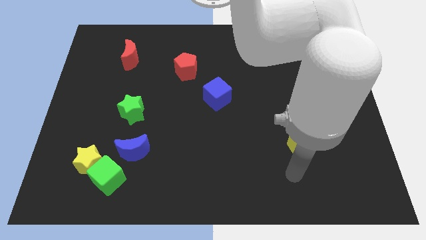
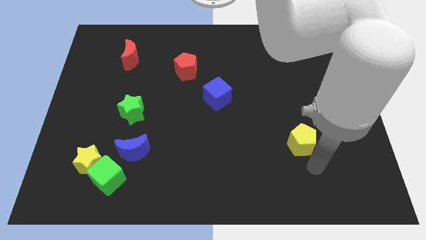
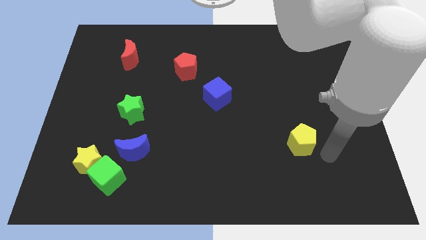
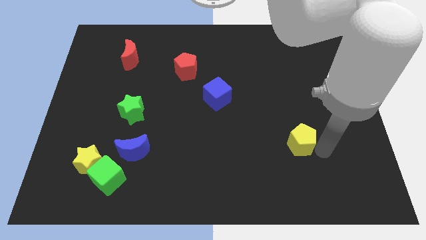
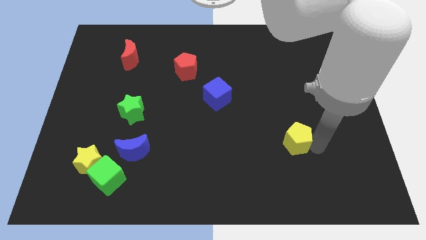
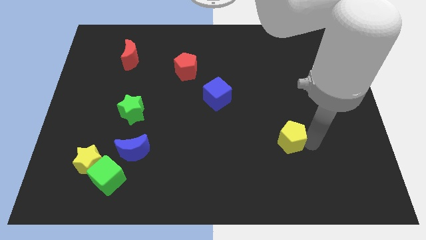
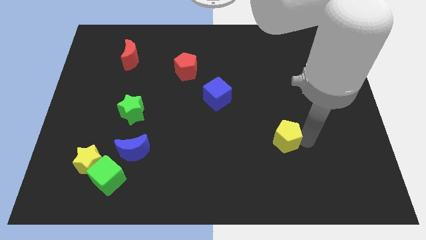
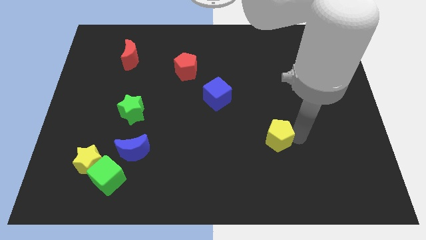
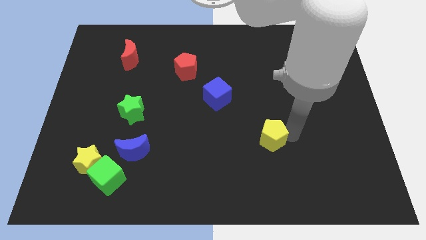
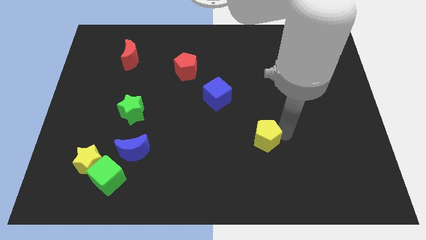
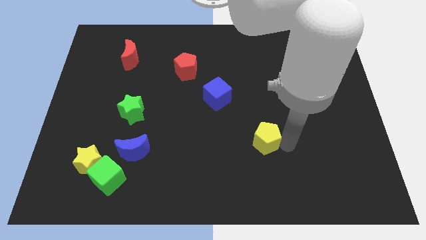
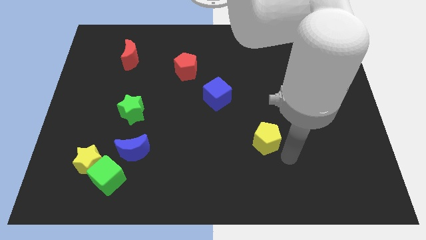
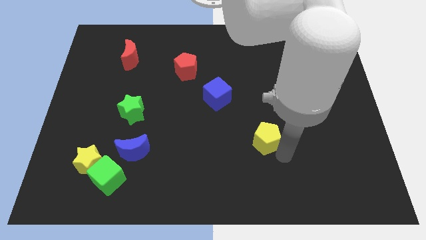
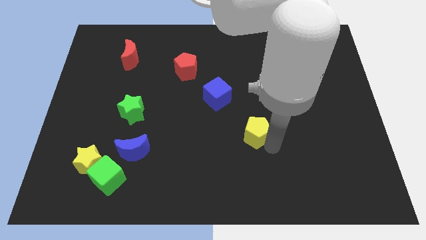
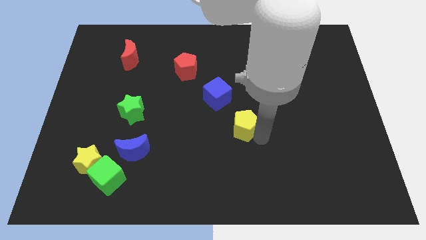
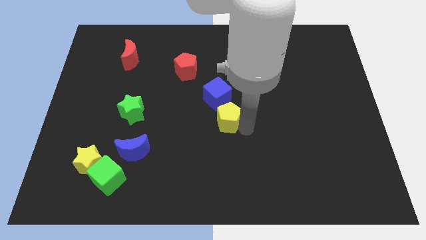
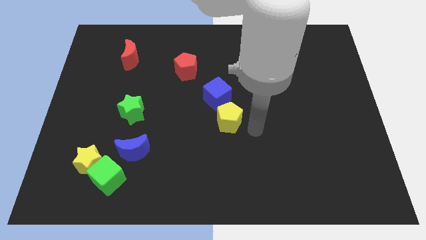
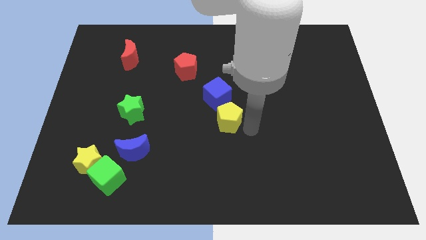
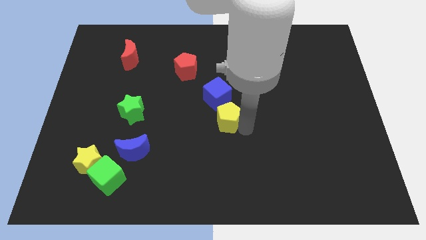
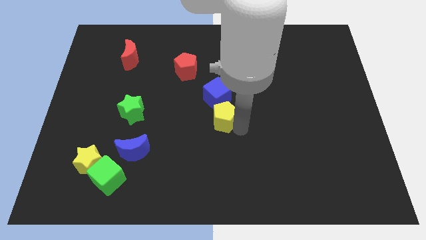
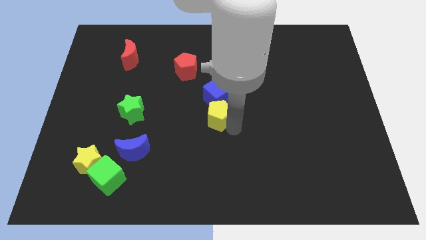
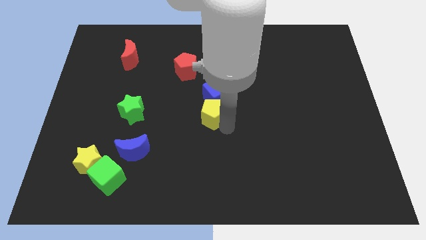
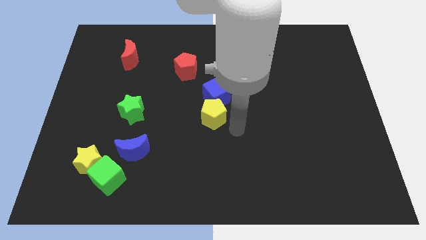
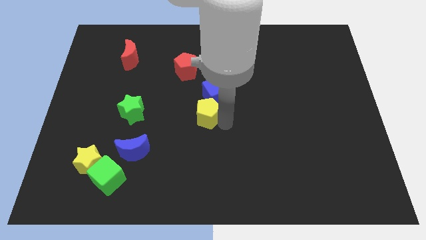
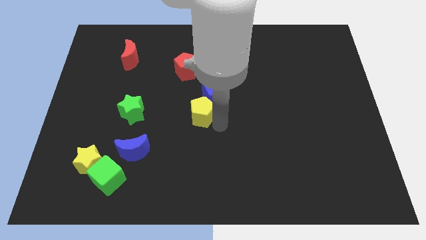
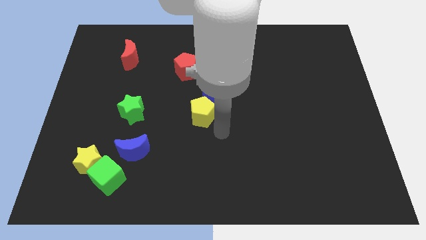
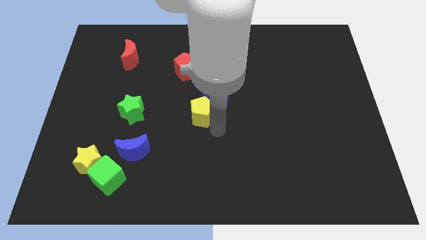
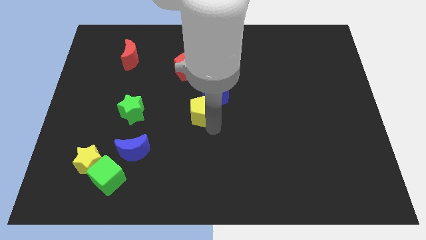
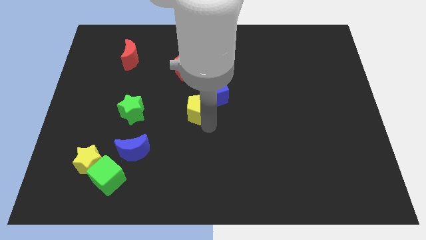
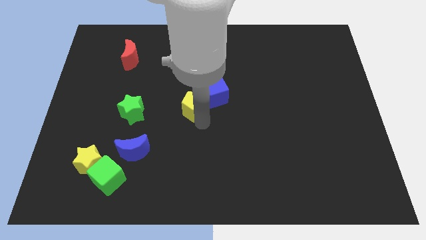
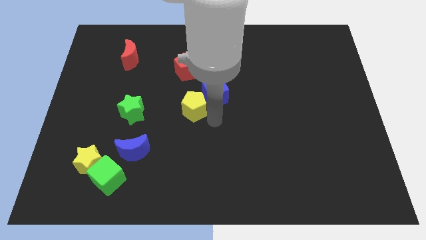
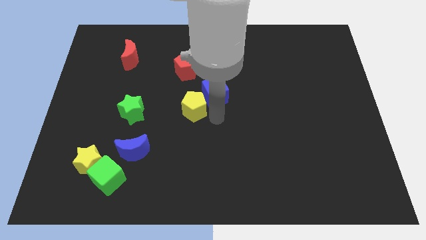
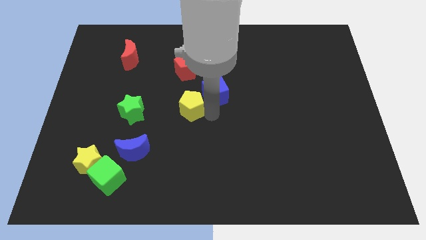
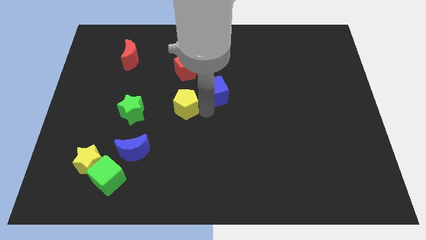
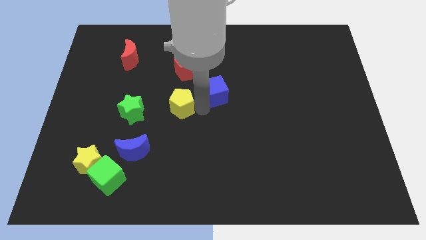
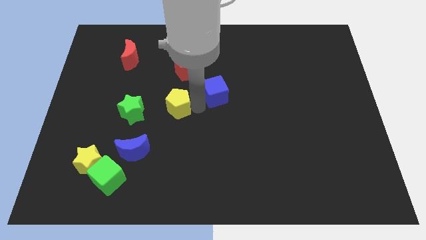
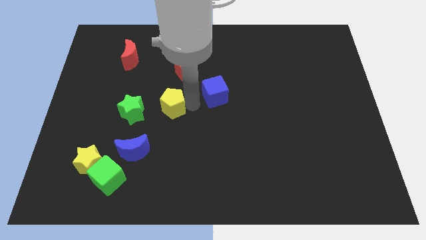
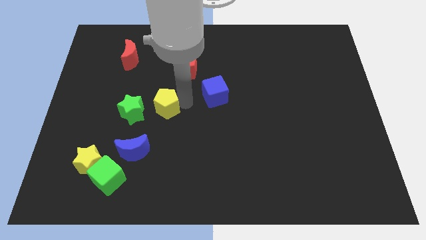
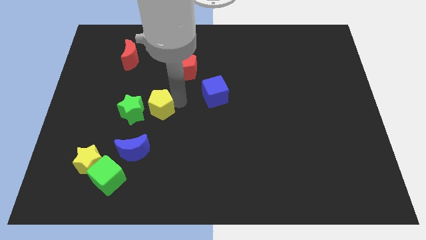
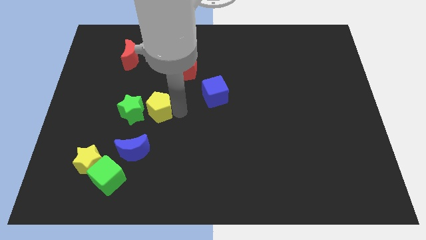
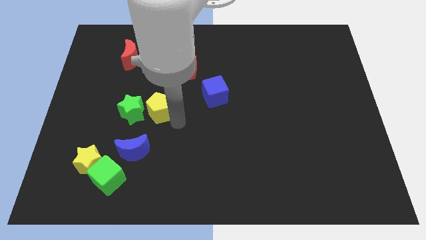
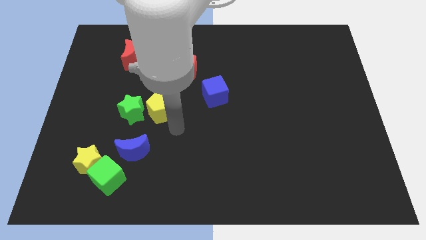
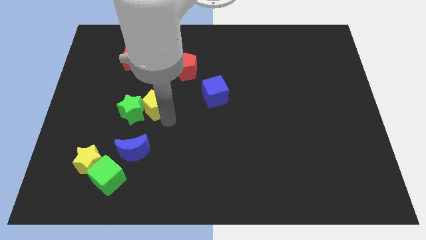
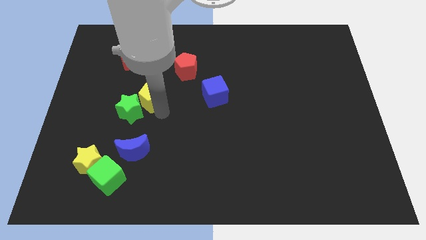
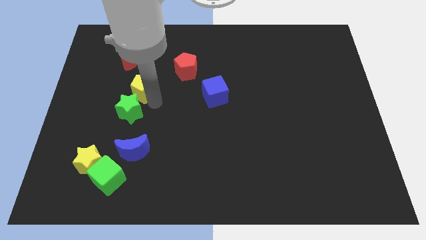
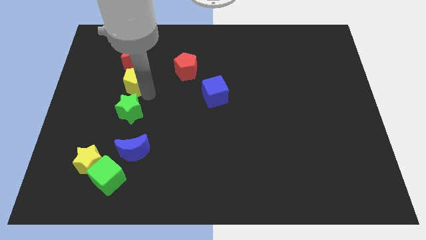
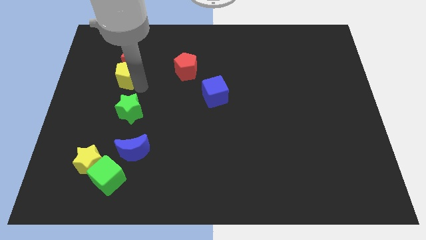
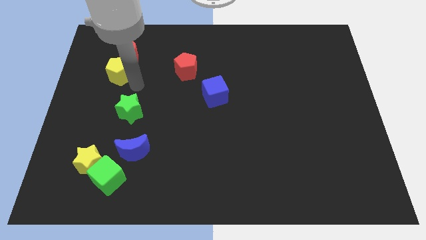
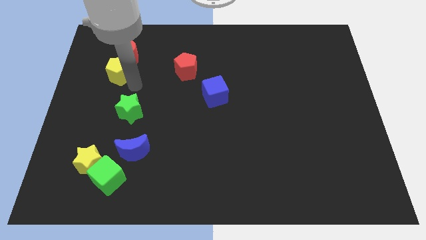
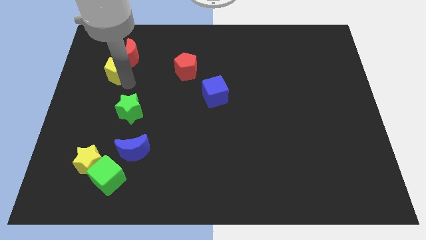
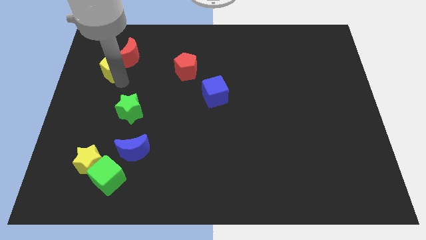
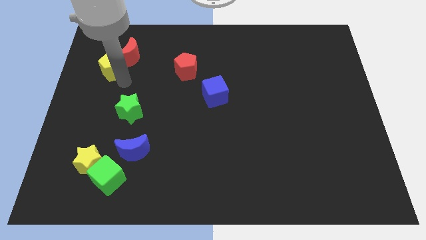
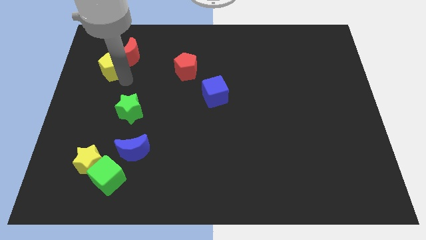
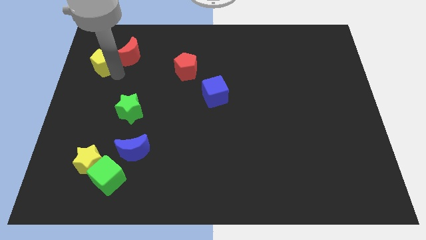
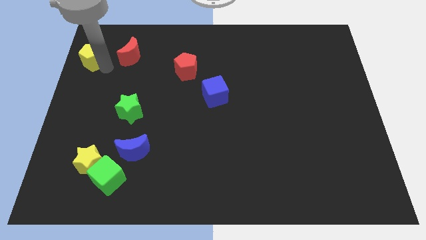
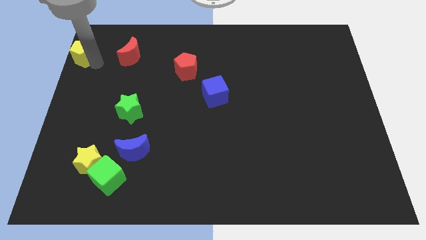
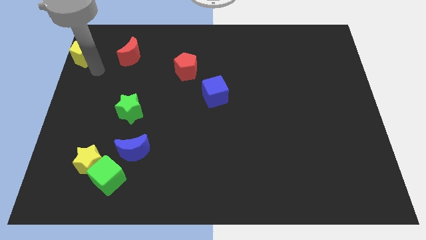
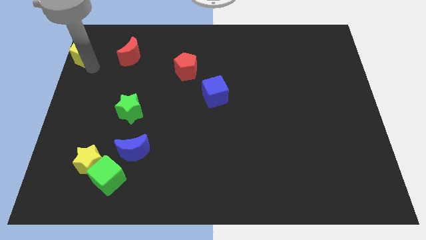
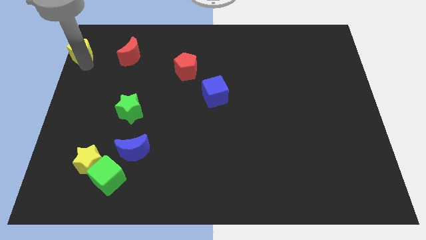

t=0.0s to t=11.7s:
push the yellow pentagon to the top left
